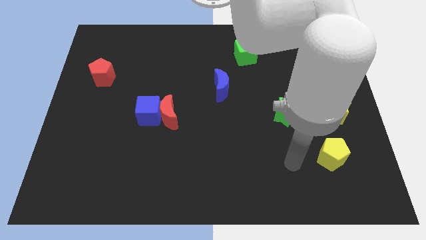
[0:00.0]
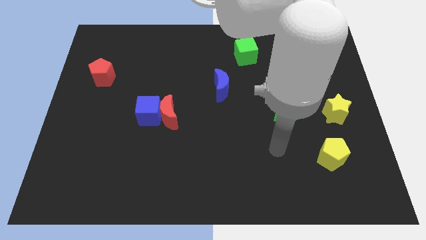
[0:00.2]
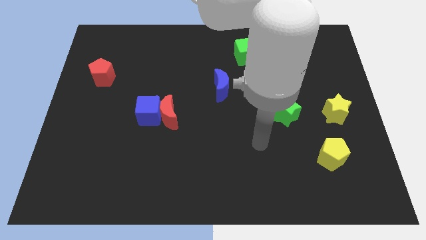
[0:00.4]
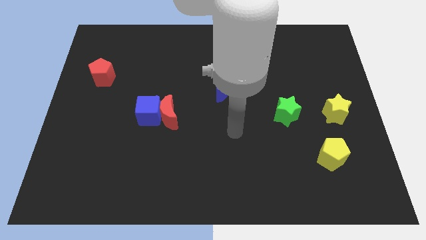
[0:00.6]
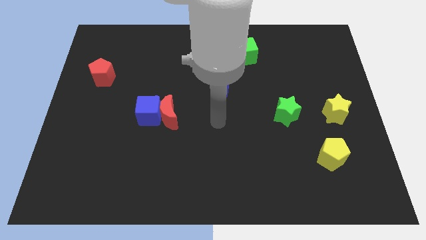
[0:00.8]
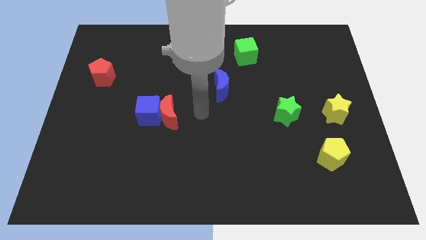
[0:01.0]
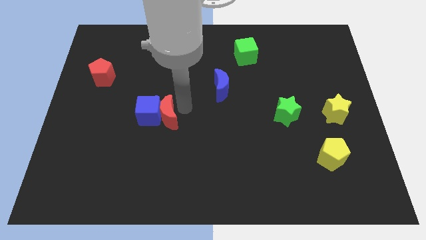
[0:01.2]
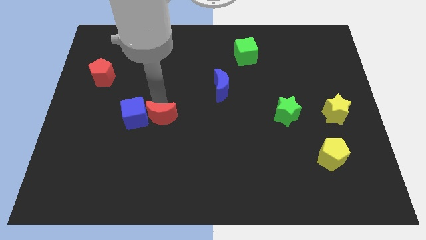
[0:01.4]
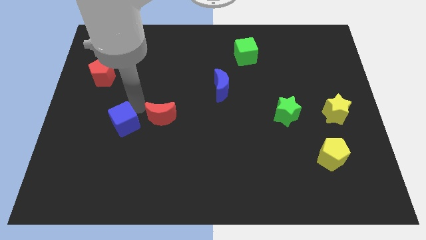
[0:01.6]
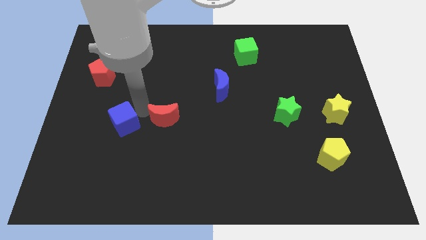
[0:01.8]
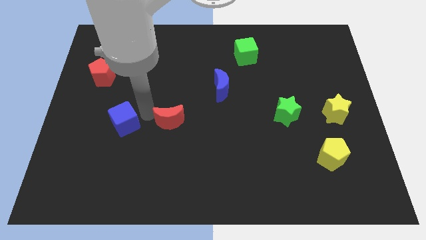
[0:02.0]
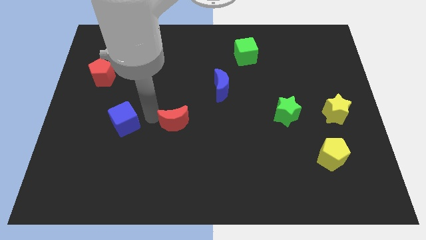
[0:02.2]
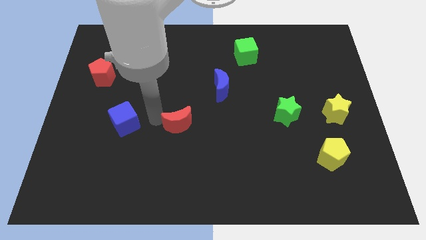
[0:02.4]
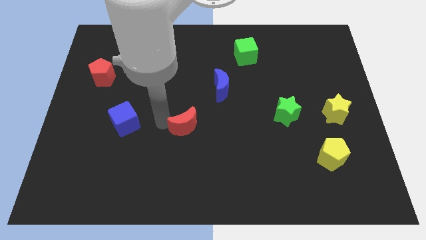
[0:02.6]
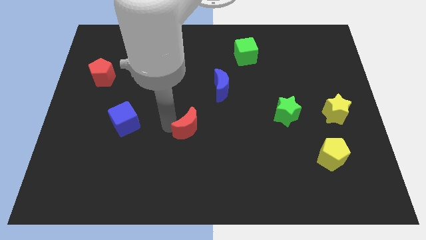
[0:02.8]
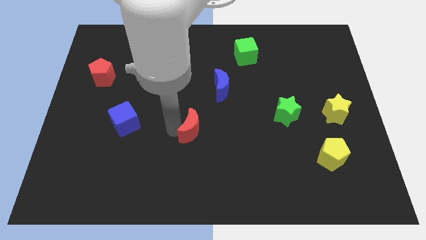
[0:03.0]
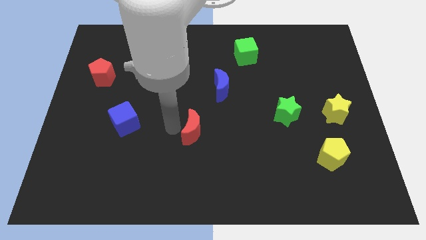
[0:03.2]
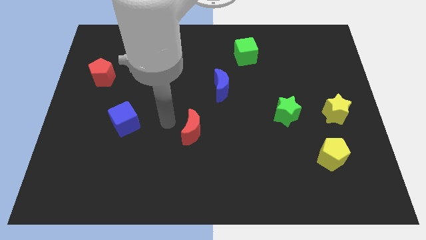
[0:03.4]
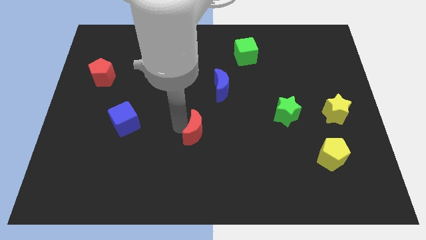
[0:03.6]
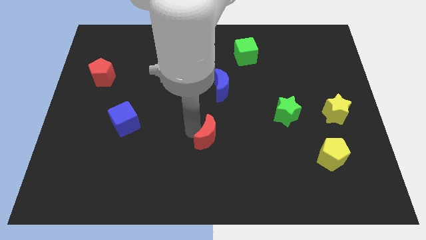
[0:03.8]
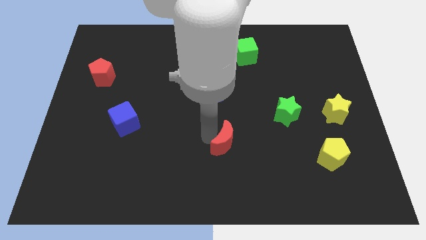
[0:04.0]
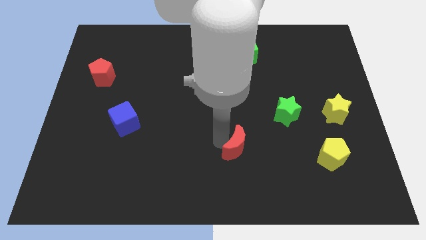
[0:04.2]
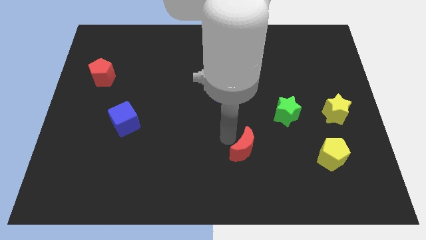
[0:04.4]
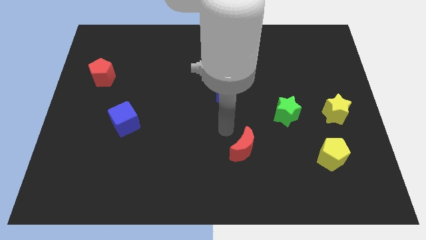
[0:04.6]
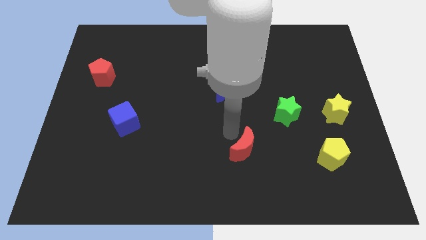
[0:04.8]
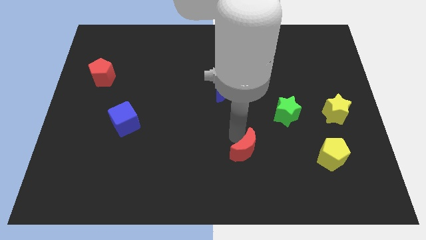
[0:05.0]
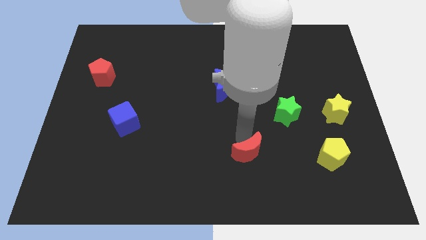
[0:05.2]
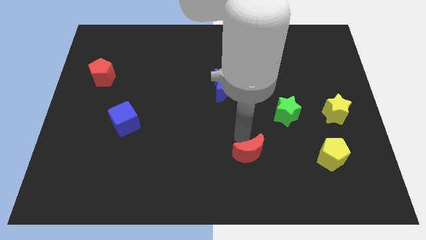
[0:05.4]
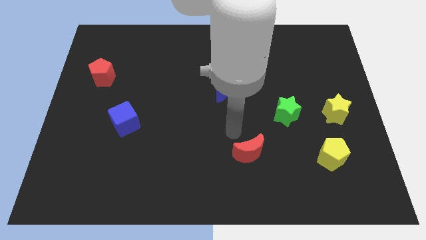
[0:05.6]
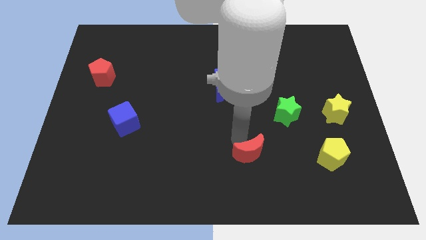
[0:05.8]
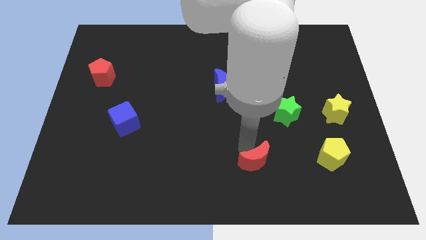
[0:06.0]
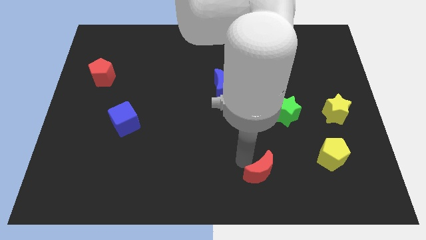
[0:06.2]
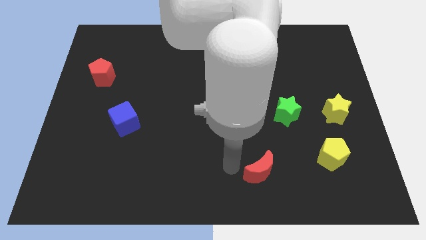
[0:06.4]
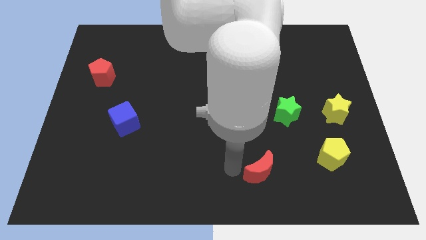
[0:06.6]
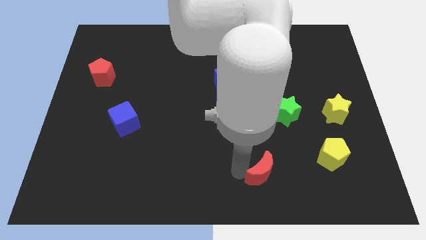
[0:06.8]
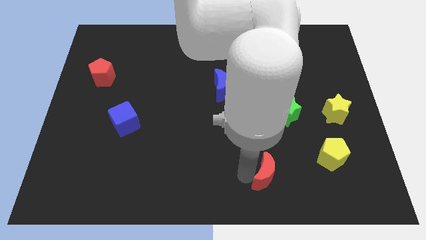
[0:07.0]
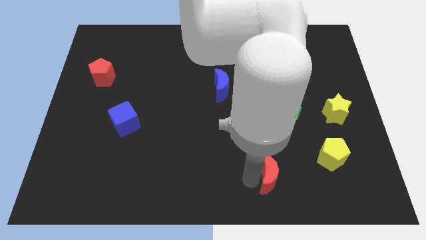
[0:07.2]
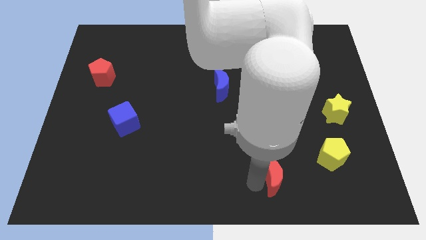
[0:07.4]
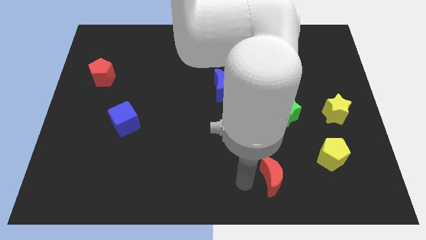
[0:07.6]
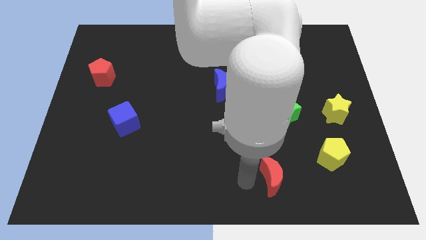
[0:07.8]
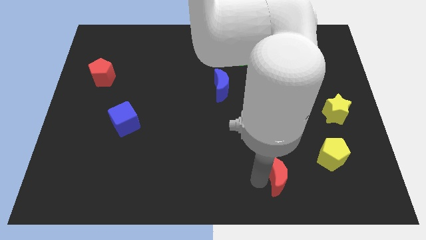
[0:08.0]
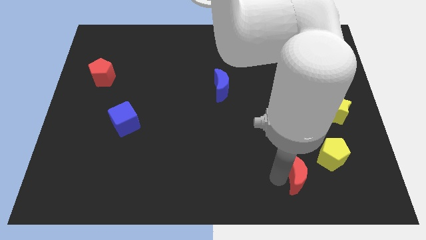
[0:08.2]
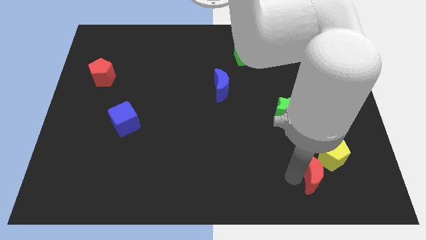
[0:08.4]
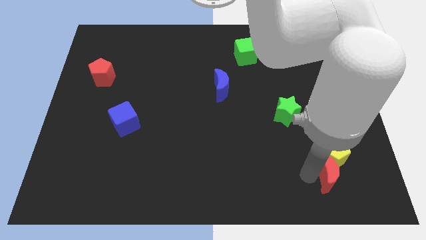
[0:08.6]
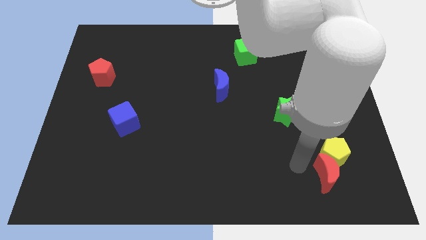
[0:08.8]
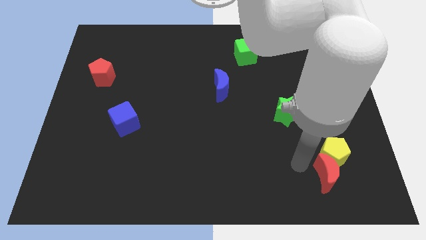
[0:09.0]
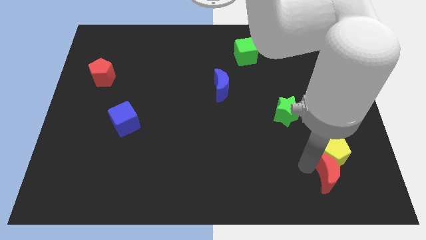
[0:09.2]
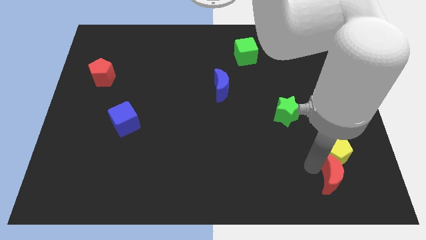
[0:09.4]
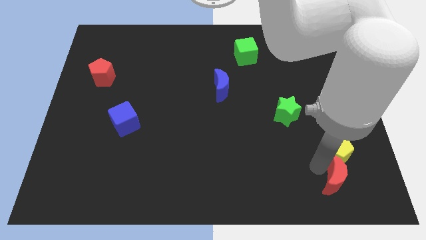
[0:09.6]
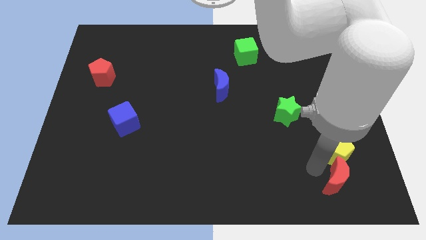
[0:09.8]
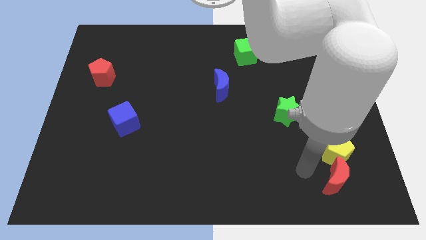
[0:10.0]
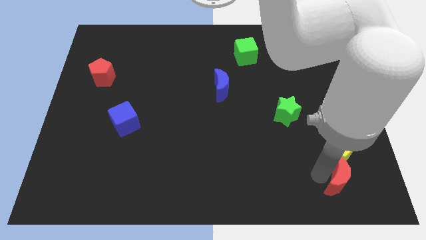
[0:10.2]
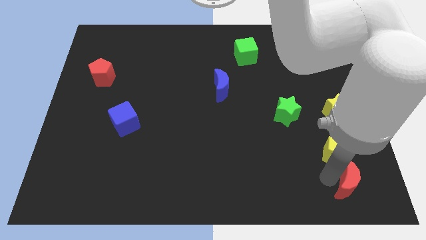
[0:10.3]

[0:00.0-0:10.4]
slide the red moon to the bottom right of the board
